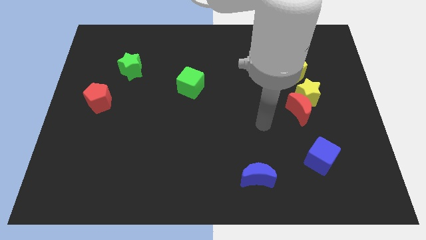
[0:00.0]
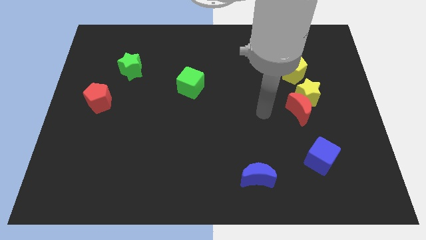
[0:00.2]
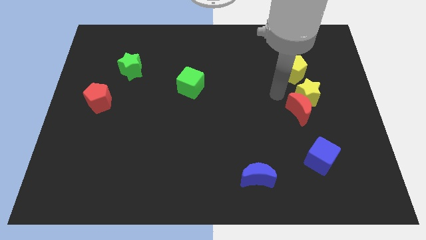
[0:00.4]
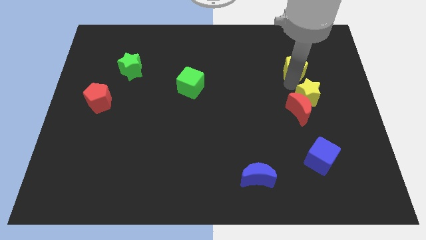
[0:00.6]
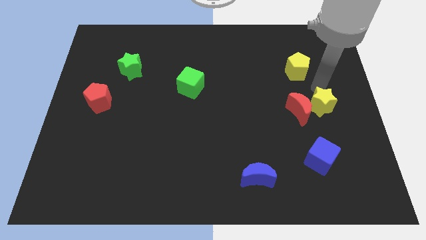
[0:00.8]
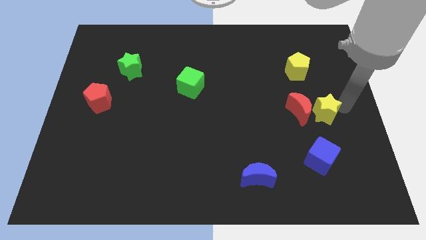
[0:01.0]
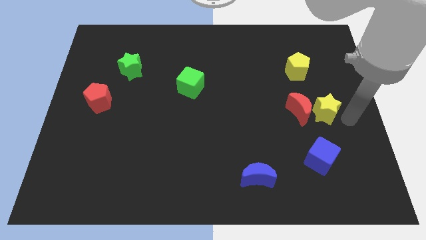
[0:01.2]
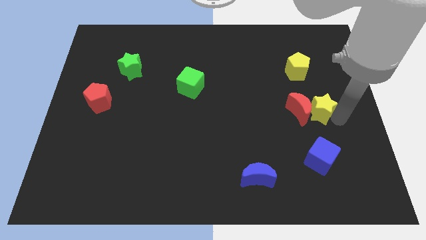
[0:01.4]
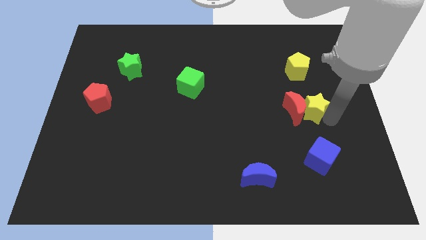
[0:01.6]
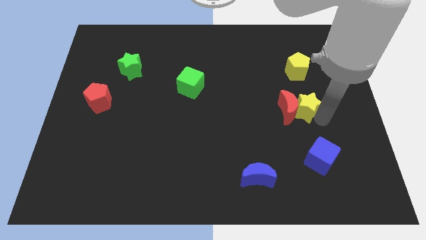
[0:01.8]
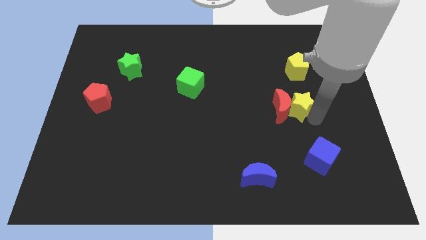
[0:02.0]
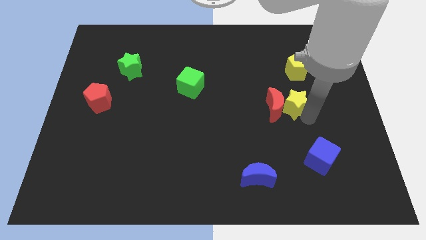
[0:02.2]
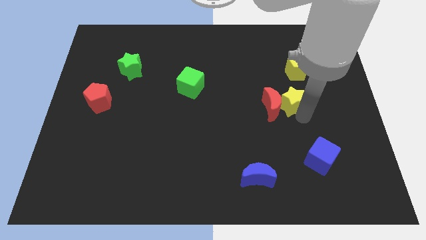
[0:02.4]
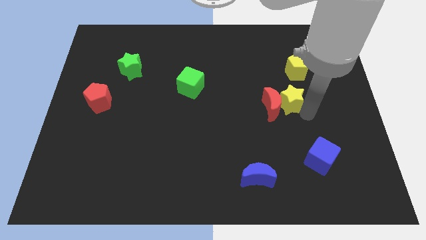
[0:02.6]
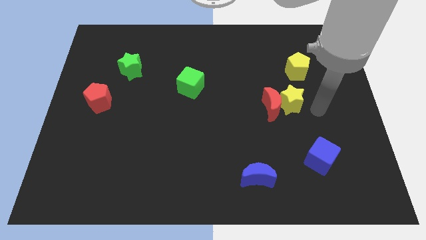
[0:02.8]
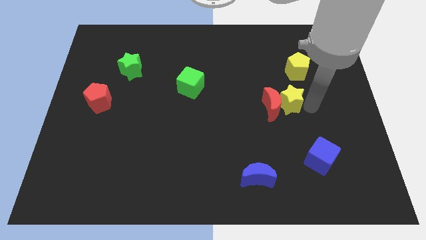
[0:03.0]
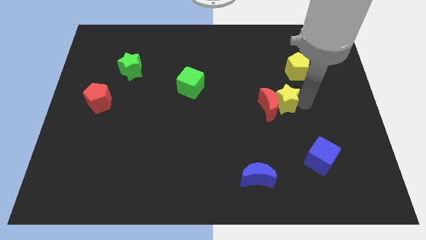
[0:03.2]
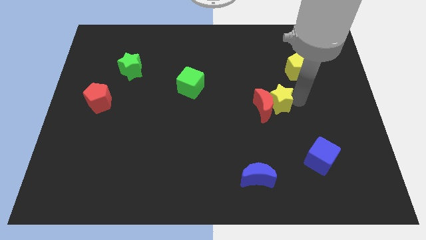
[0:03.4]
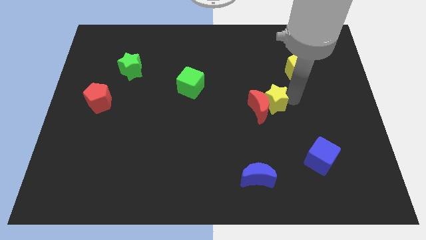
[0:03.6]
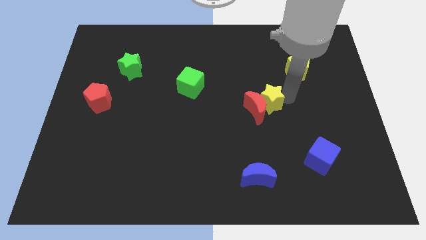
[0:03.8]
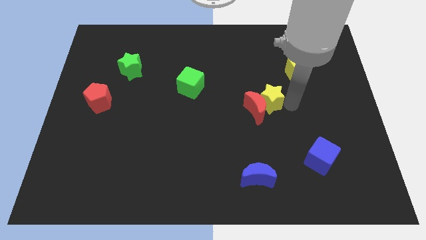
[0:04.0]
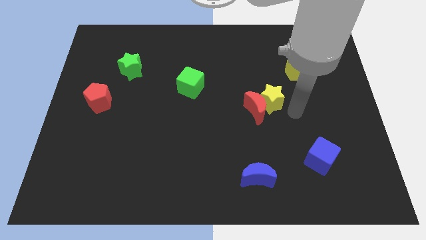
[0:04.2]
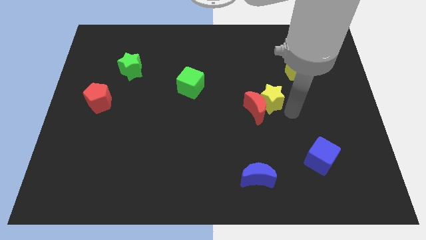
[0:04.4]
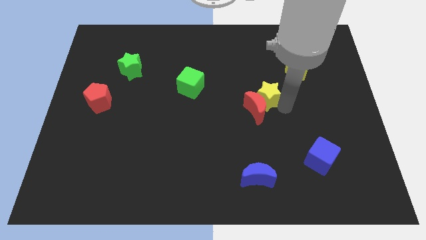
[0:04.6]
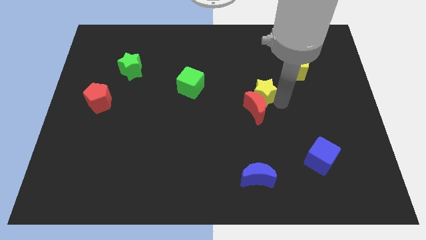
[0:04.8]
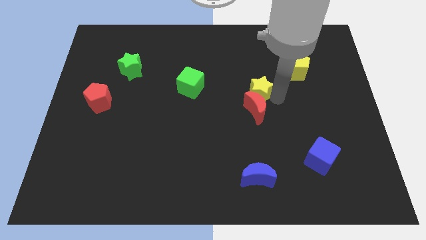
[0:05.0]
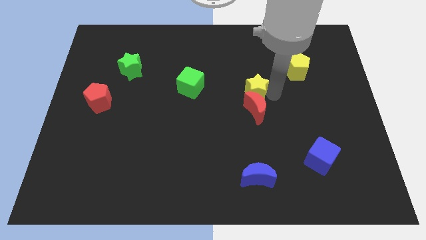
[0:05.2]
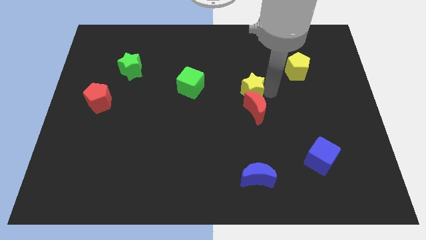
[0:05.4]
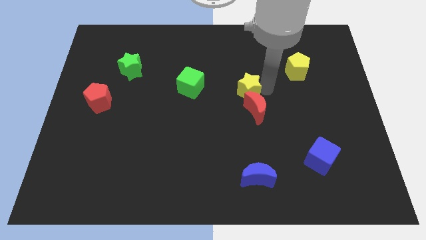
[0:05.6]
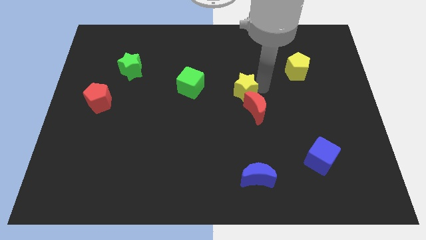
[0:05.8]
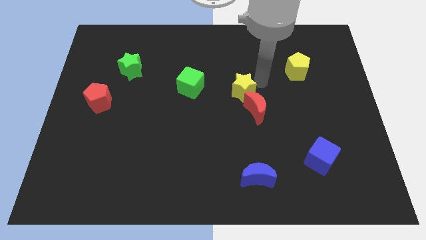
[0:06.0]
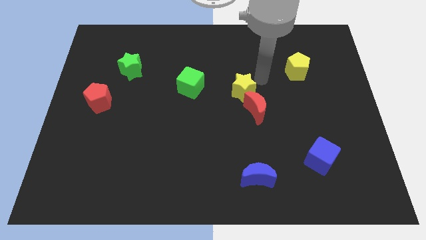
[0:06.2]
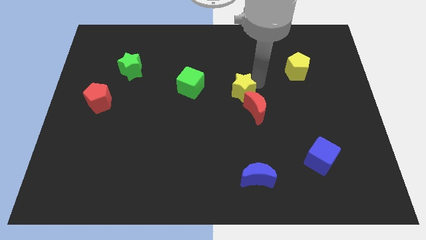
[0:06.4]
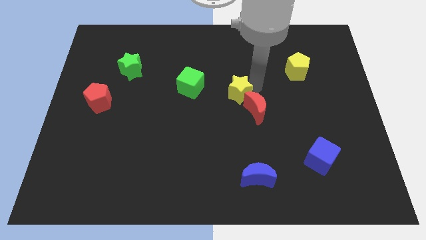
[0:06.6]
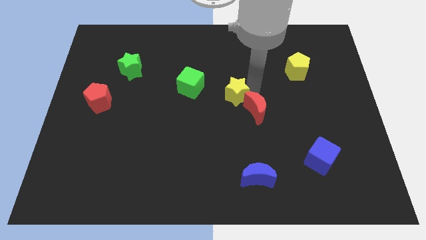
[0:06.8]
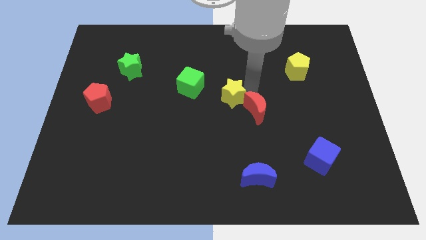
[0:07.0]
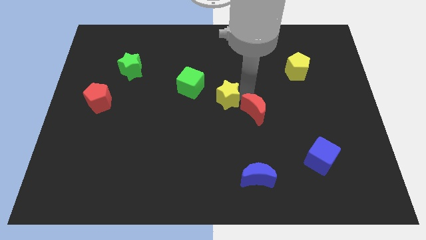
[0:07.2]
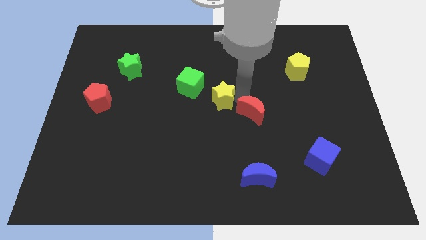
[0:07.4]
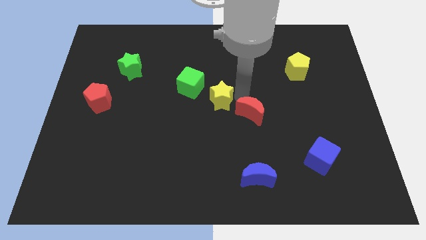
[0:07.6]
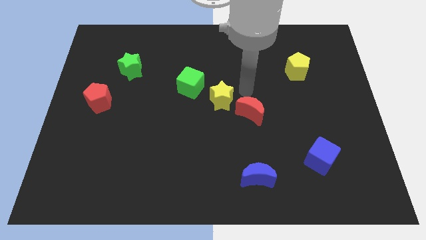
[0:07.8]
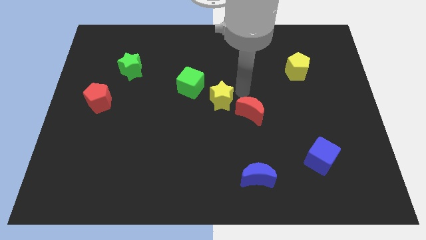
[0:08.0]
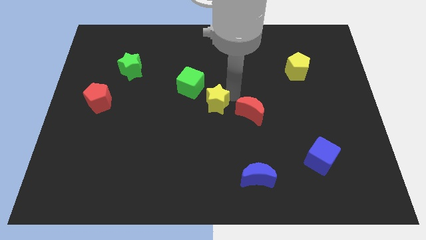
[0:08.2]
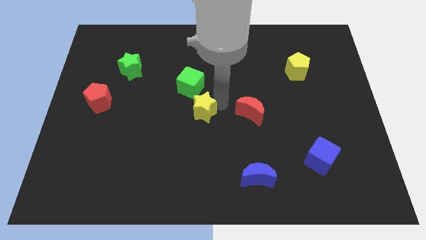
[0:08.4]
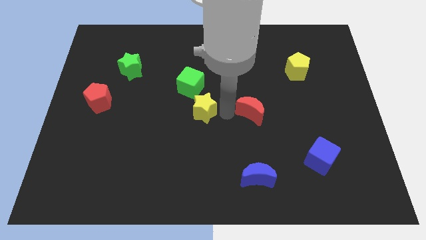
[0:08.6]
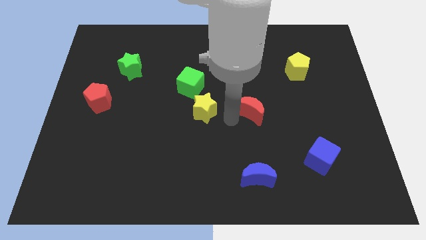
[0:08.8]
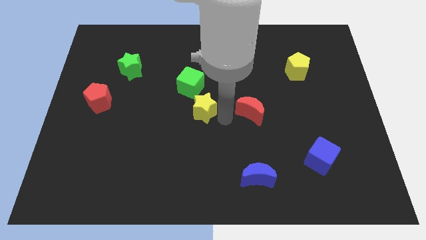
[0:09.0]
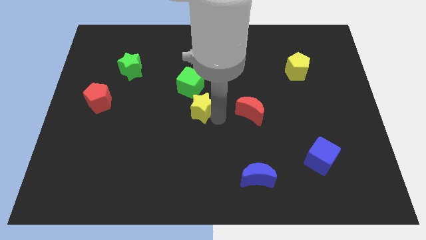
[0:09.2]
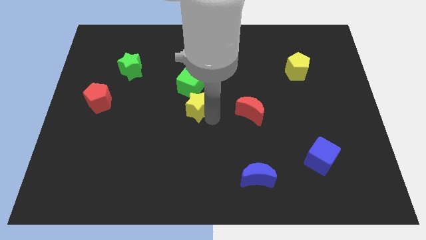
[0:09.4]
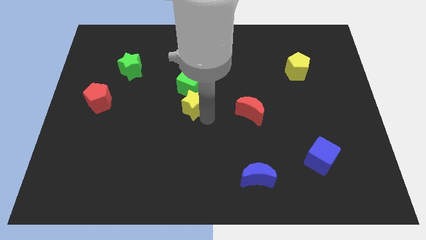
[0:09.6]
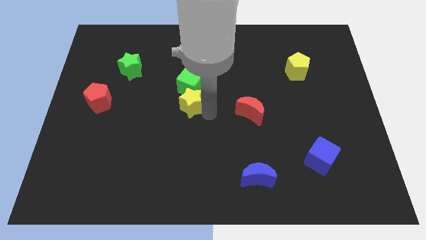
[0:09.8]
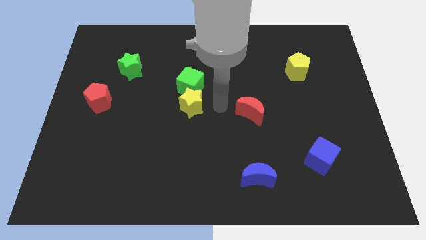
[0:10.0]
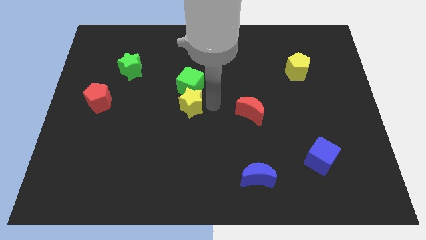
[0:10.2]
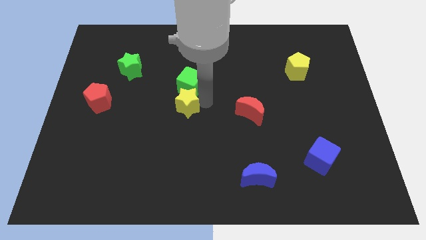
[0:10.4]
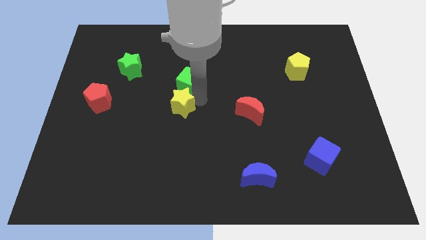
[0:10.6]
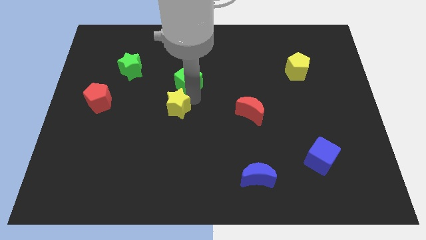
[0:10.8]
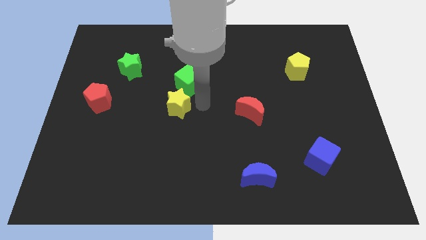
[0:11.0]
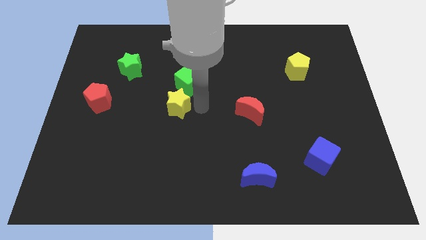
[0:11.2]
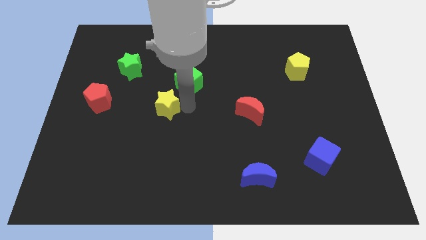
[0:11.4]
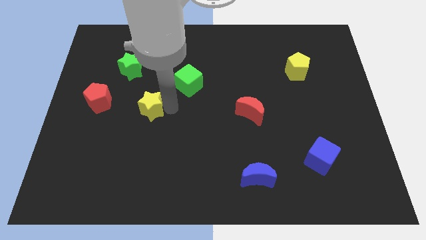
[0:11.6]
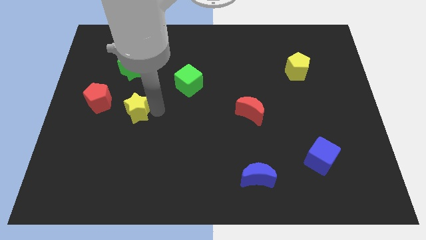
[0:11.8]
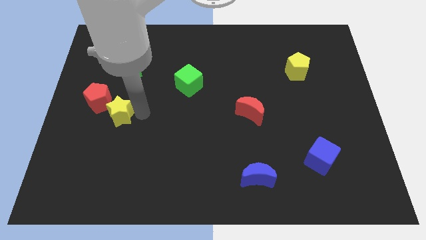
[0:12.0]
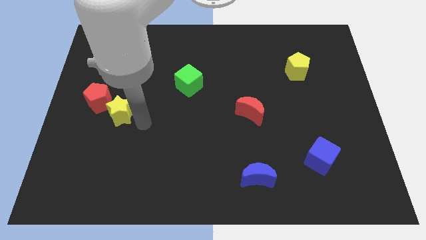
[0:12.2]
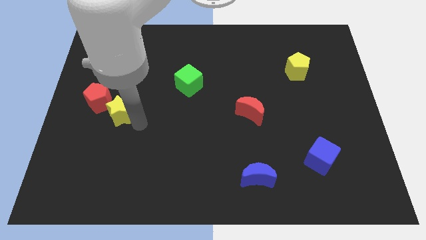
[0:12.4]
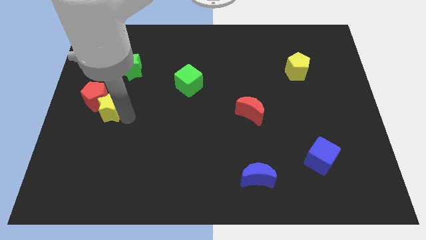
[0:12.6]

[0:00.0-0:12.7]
push the yellow star next to the red pentagon
